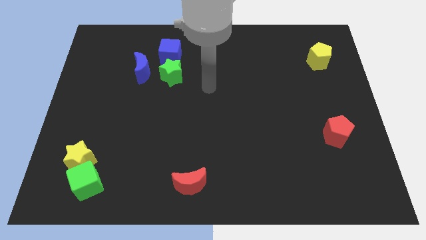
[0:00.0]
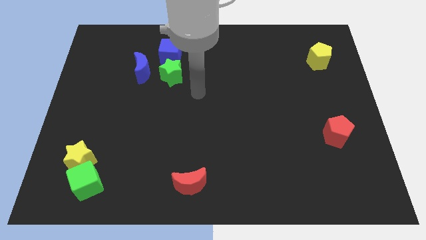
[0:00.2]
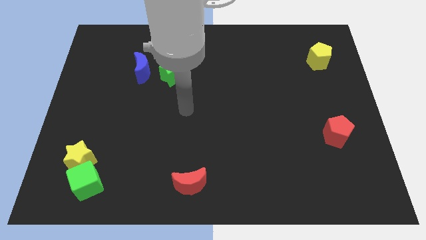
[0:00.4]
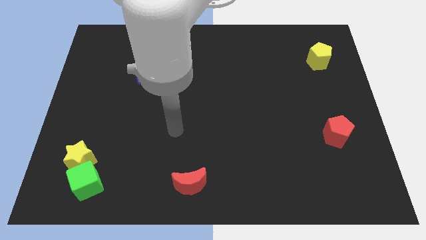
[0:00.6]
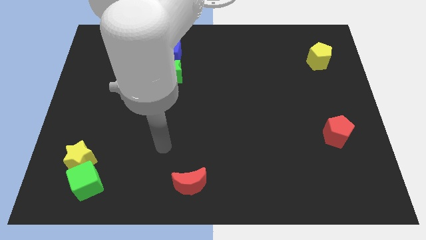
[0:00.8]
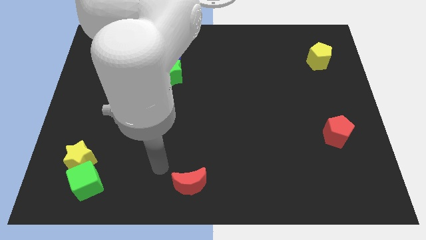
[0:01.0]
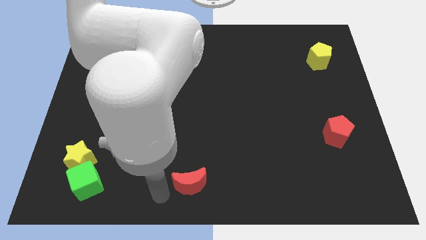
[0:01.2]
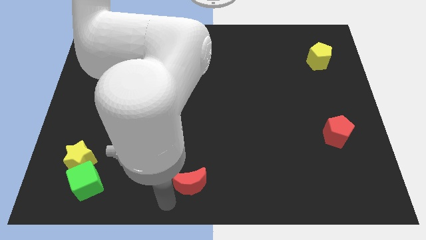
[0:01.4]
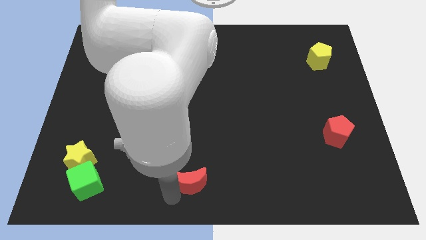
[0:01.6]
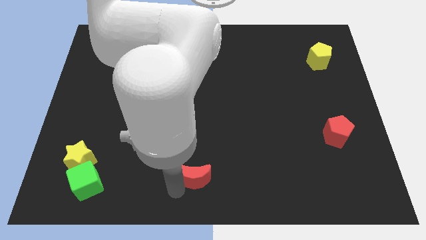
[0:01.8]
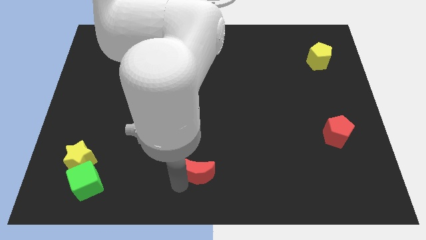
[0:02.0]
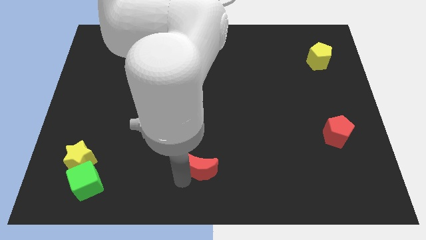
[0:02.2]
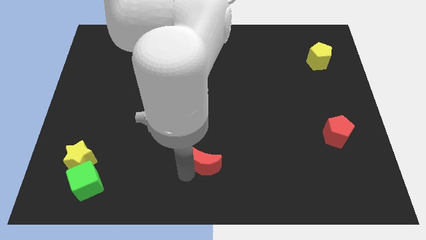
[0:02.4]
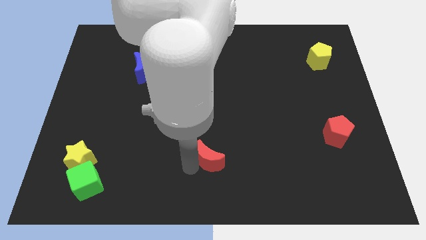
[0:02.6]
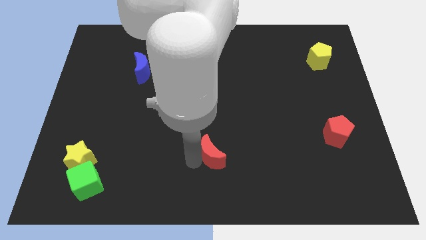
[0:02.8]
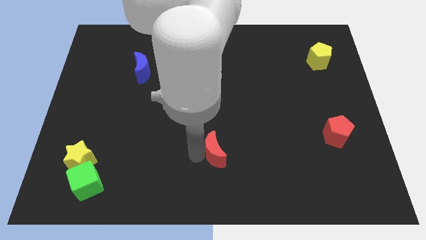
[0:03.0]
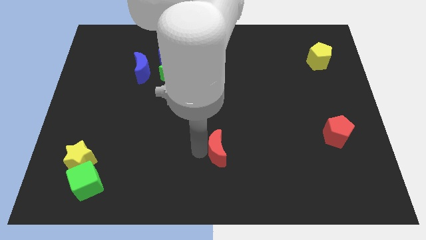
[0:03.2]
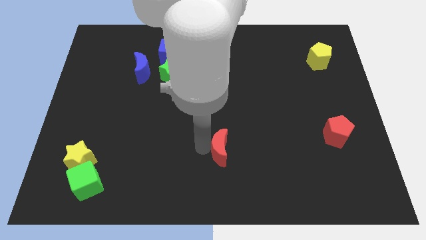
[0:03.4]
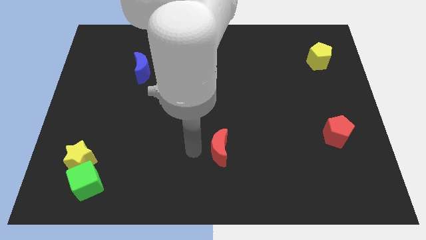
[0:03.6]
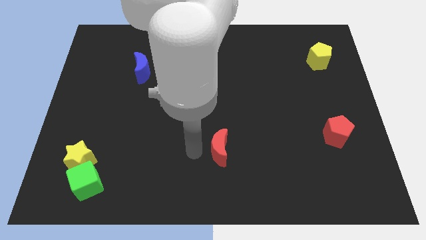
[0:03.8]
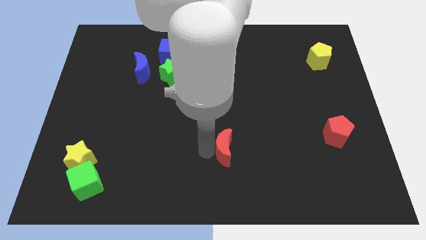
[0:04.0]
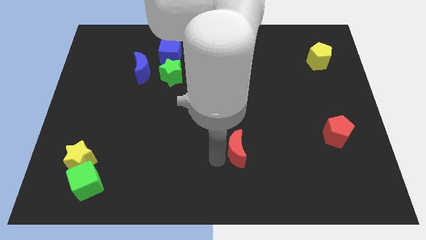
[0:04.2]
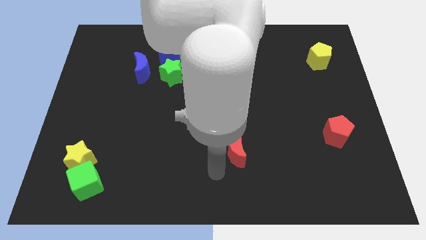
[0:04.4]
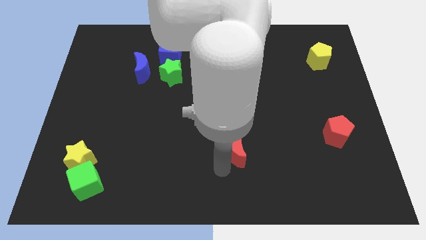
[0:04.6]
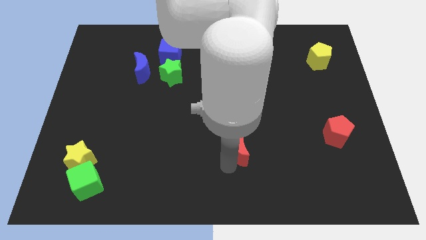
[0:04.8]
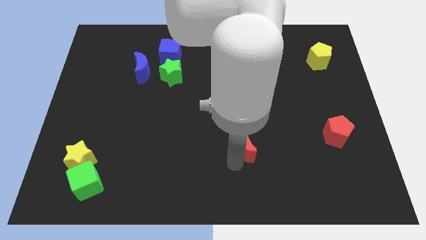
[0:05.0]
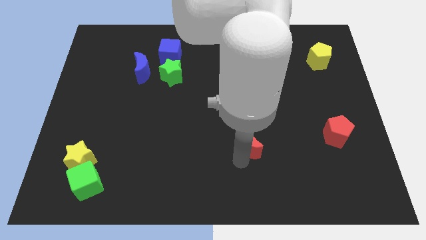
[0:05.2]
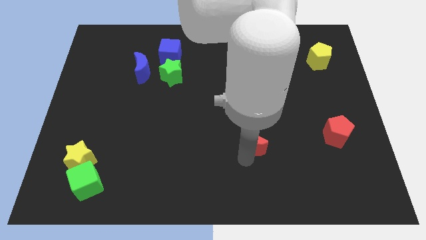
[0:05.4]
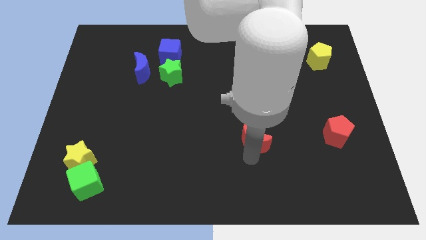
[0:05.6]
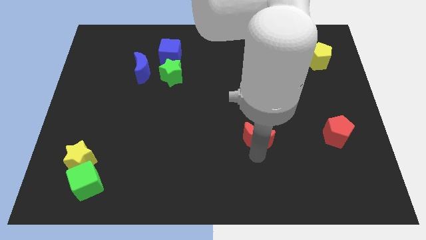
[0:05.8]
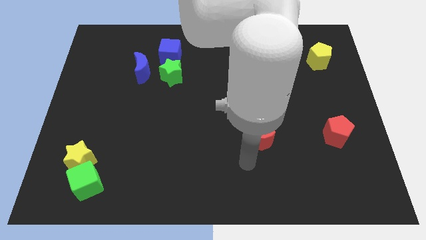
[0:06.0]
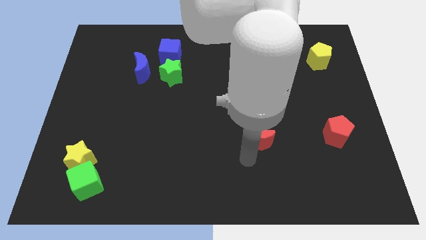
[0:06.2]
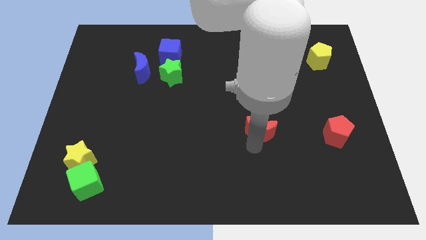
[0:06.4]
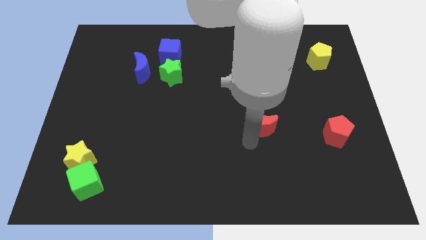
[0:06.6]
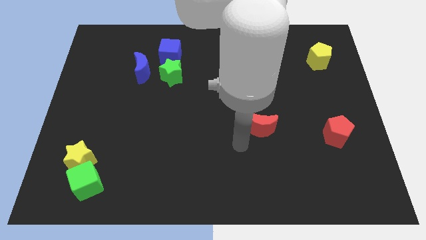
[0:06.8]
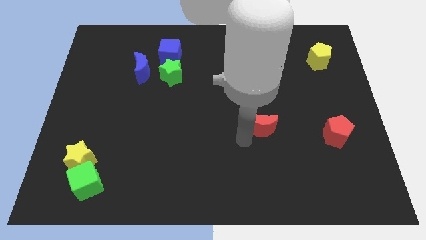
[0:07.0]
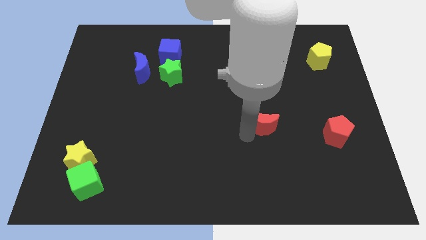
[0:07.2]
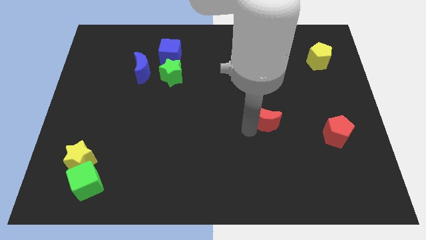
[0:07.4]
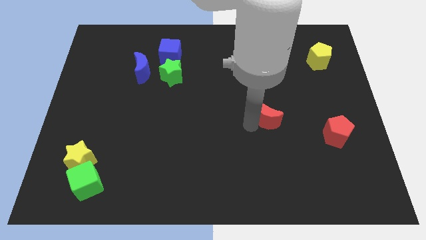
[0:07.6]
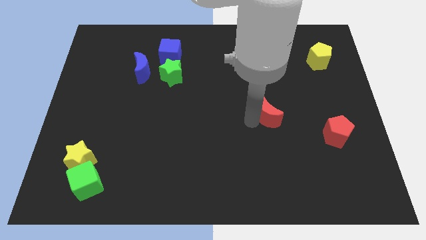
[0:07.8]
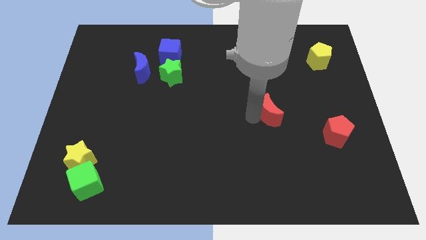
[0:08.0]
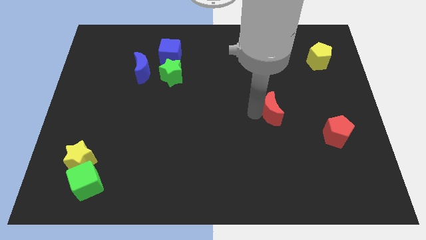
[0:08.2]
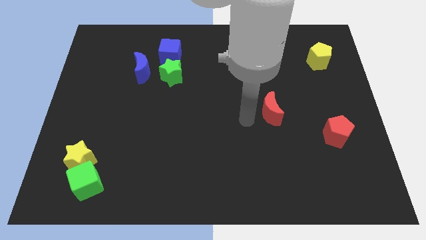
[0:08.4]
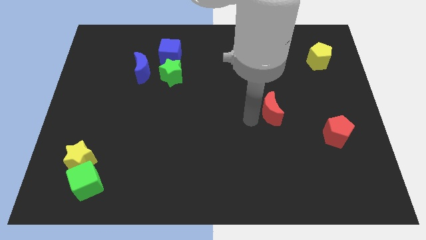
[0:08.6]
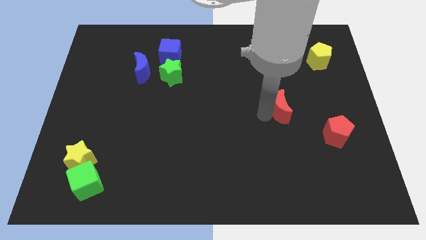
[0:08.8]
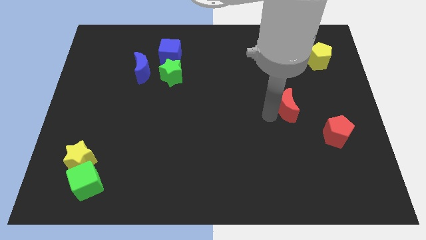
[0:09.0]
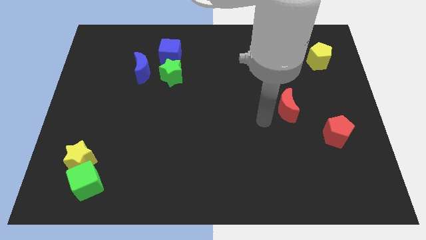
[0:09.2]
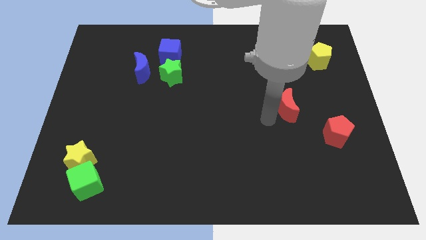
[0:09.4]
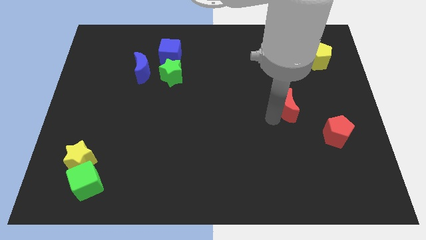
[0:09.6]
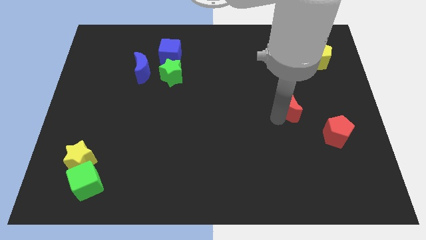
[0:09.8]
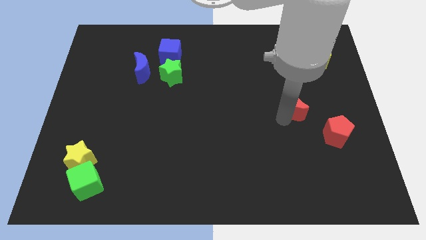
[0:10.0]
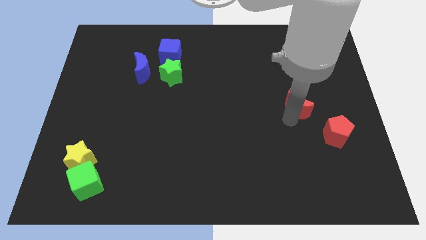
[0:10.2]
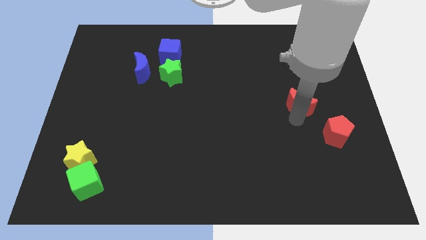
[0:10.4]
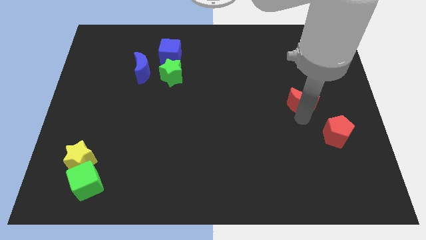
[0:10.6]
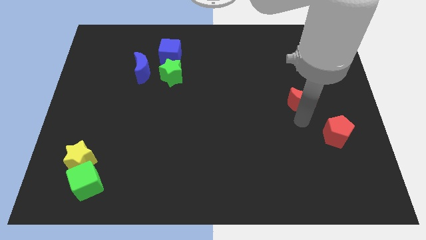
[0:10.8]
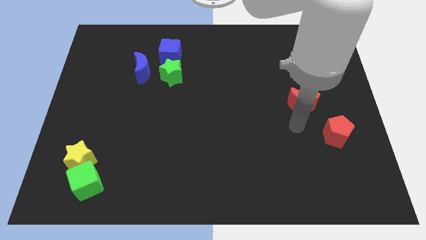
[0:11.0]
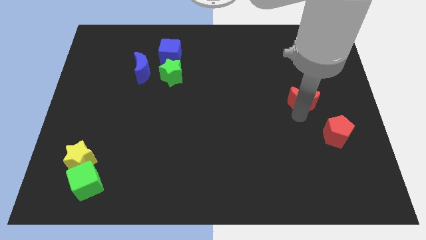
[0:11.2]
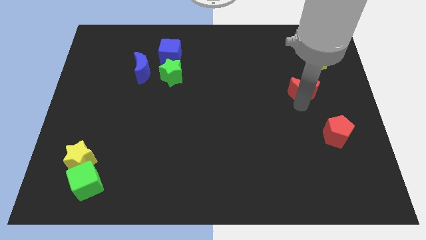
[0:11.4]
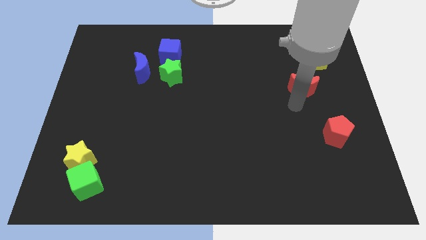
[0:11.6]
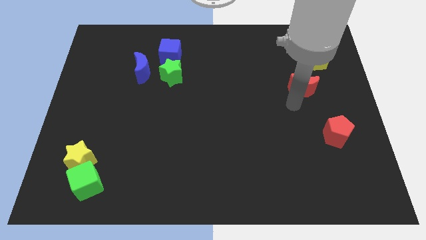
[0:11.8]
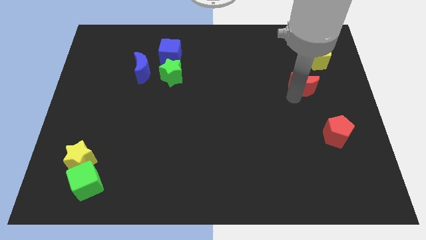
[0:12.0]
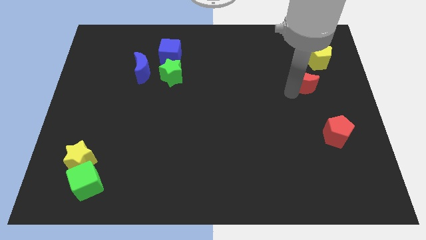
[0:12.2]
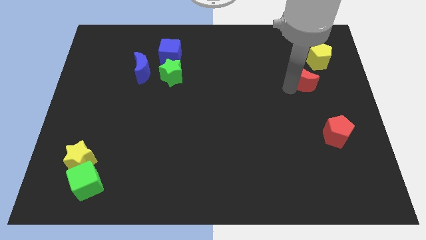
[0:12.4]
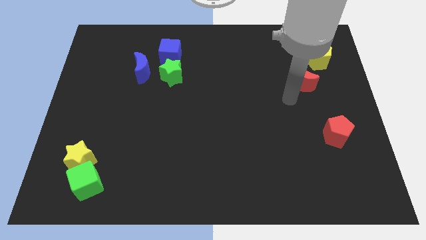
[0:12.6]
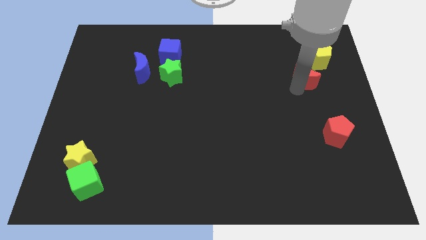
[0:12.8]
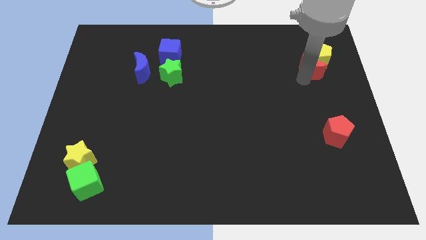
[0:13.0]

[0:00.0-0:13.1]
move the red moon towards the yellow pentagon

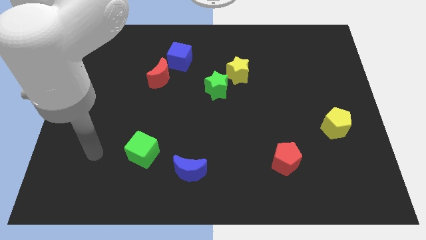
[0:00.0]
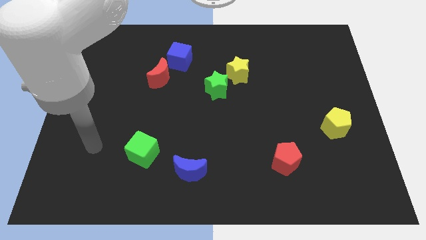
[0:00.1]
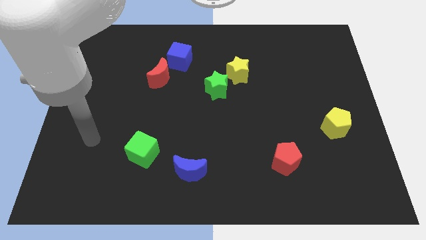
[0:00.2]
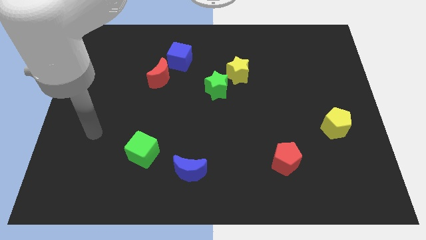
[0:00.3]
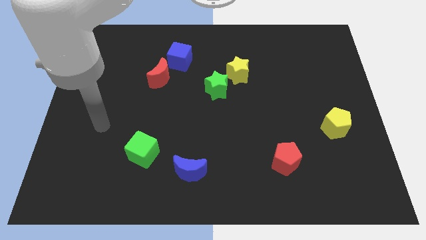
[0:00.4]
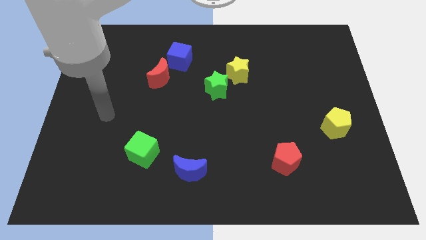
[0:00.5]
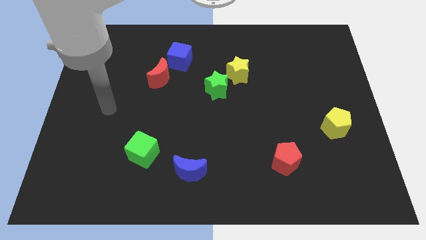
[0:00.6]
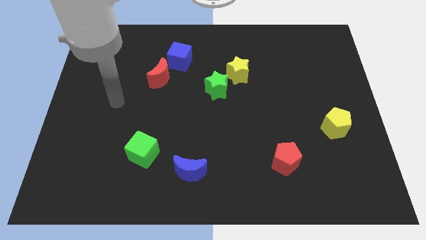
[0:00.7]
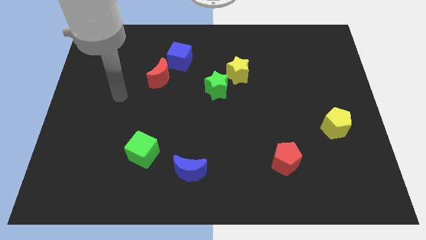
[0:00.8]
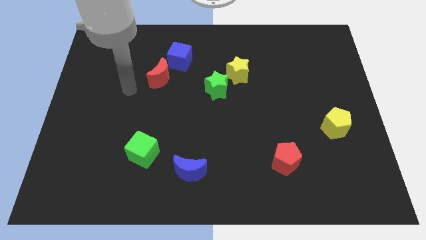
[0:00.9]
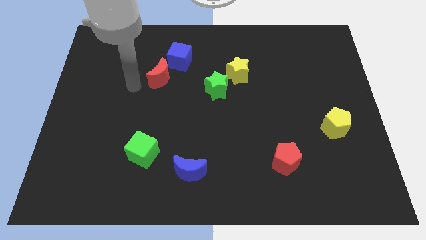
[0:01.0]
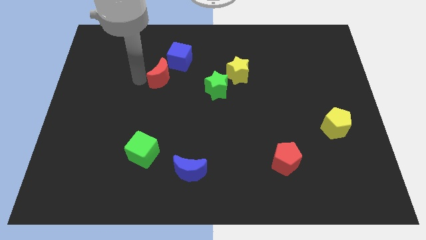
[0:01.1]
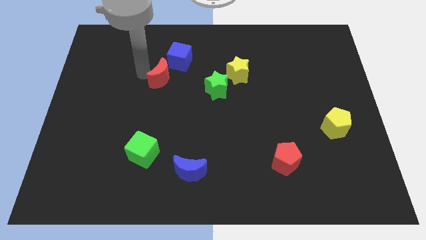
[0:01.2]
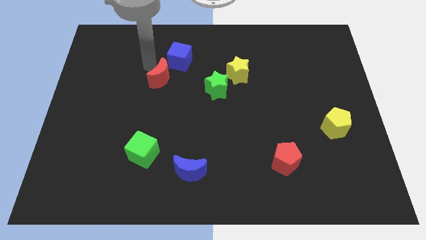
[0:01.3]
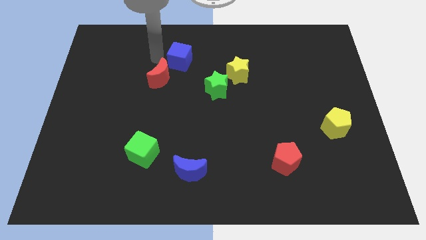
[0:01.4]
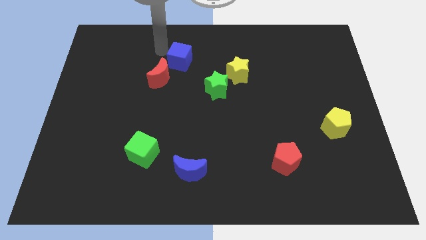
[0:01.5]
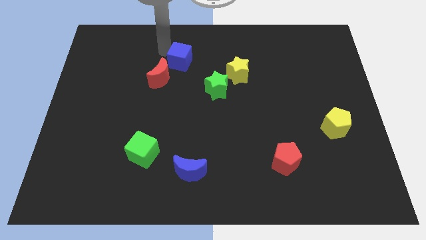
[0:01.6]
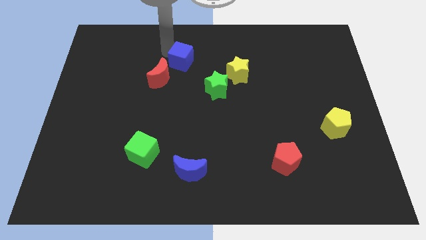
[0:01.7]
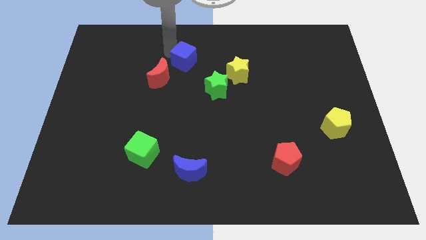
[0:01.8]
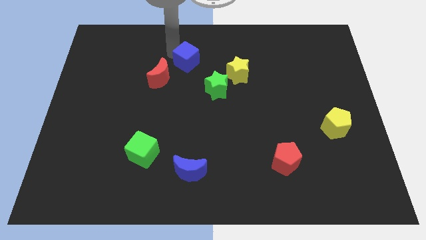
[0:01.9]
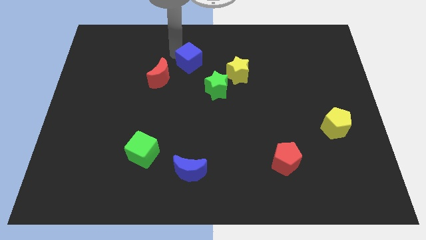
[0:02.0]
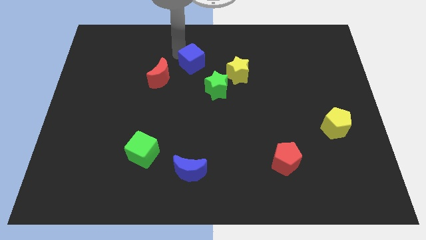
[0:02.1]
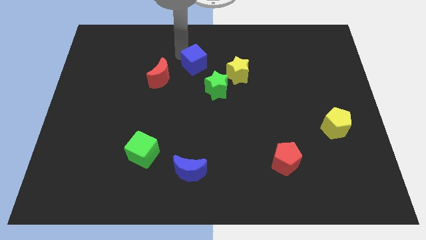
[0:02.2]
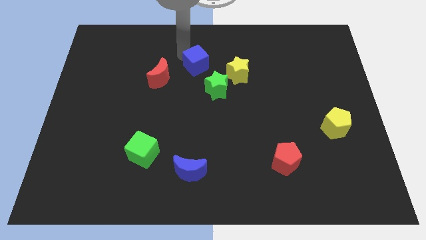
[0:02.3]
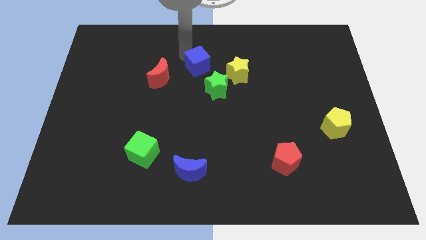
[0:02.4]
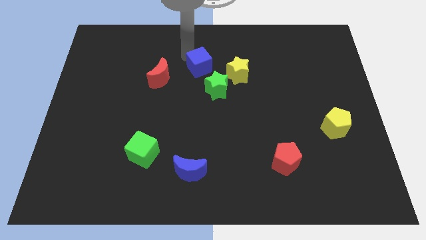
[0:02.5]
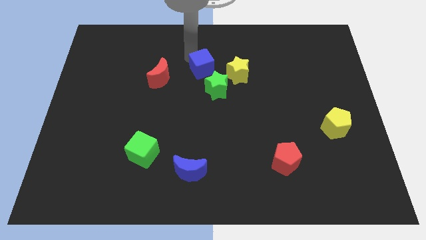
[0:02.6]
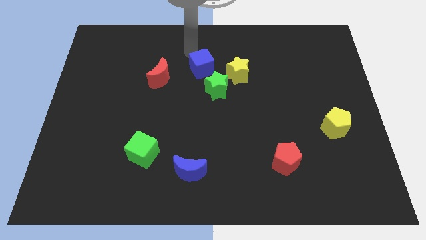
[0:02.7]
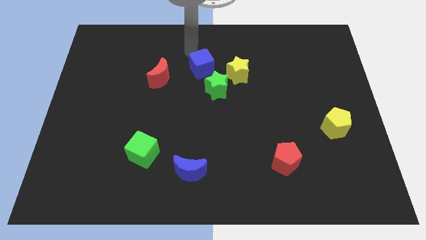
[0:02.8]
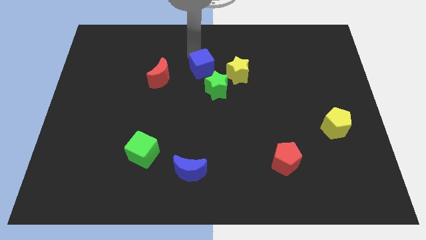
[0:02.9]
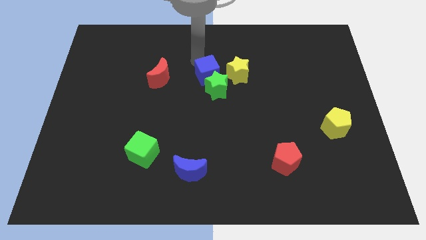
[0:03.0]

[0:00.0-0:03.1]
slide the blue cube towards the green star
